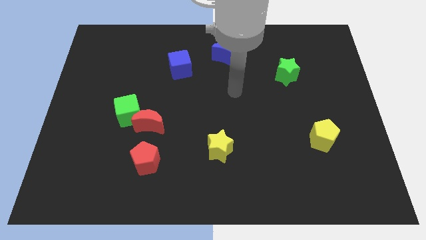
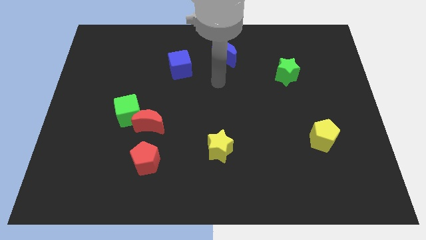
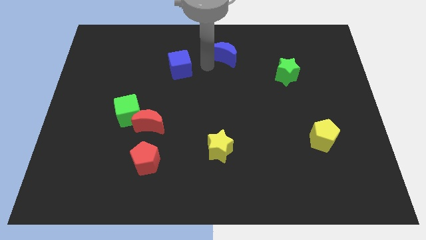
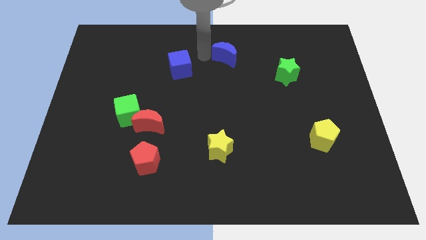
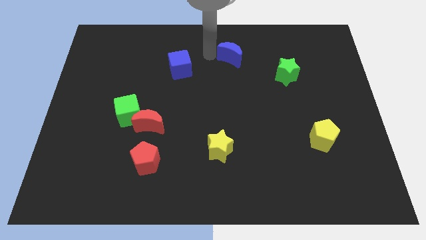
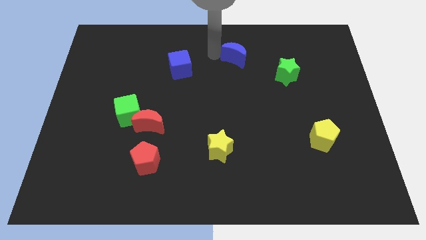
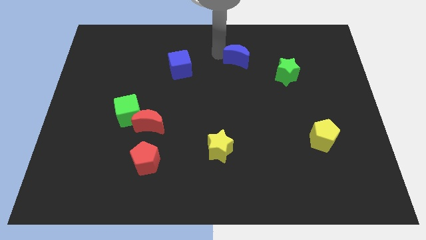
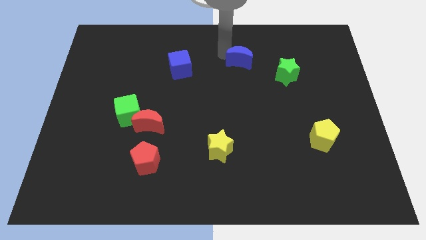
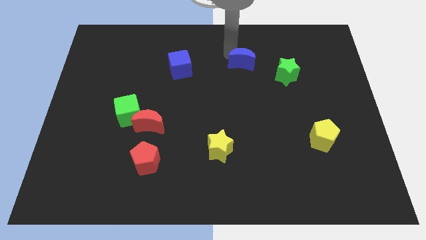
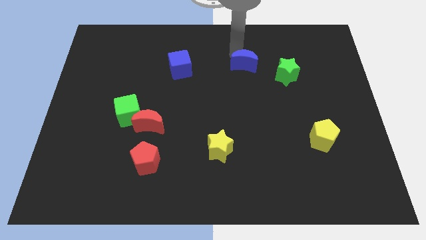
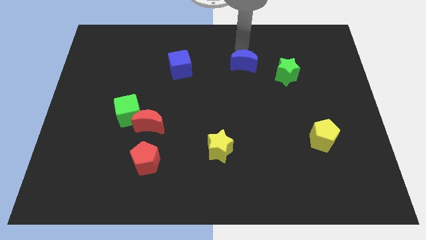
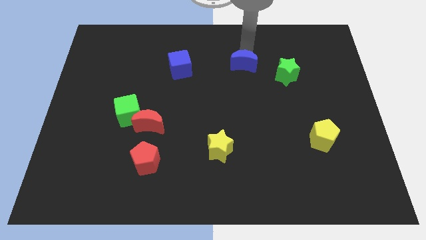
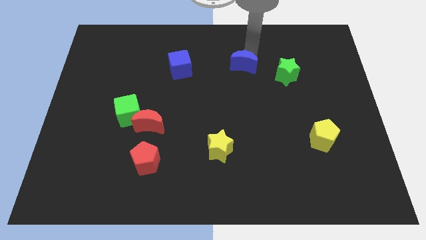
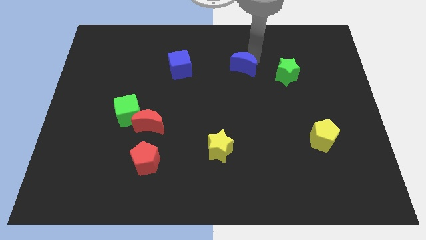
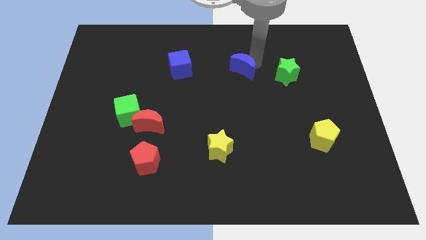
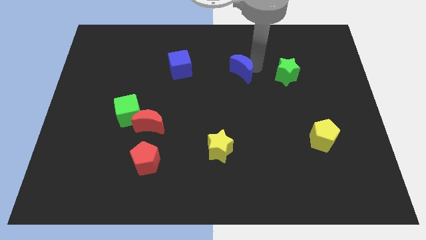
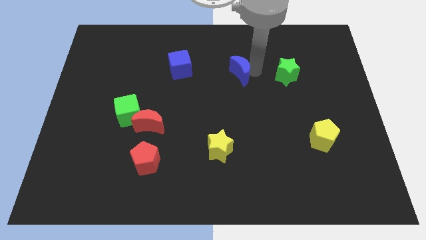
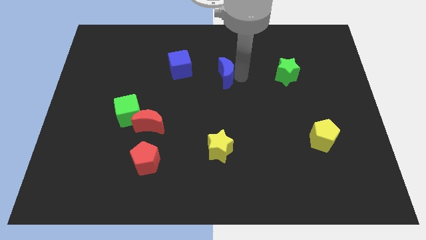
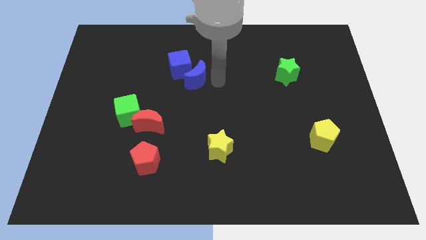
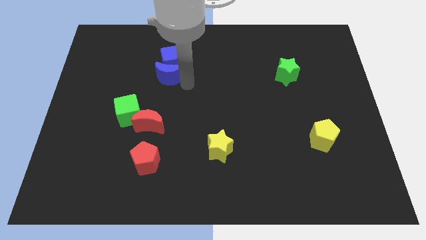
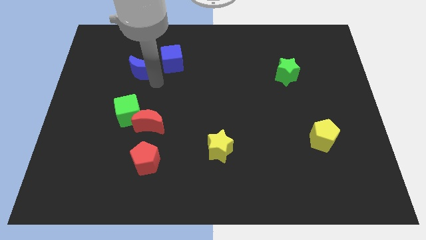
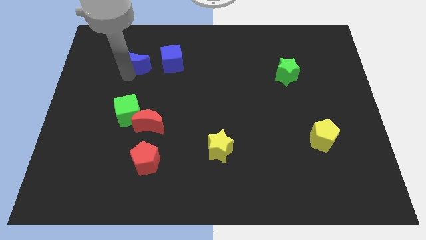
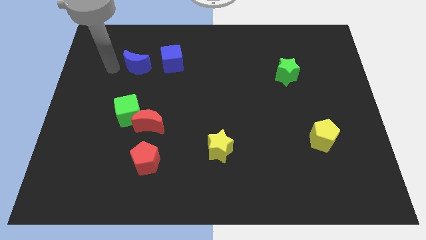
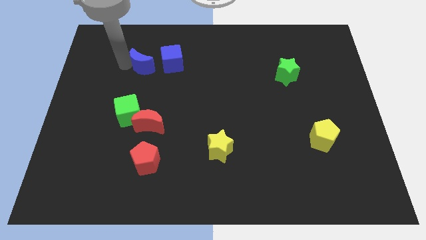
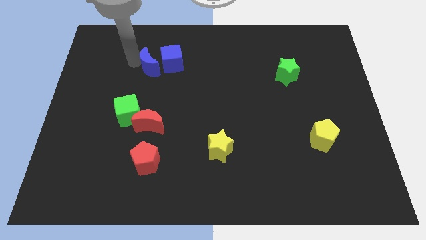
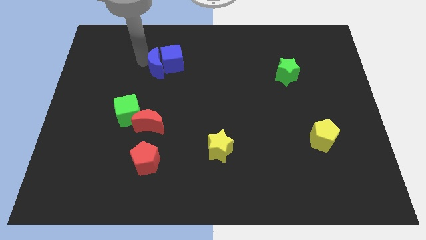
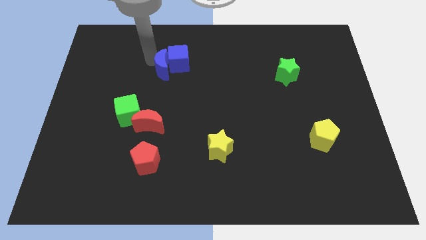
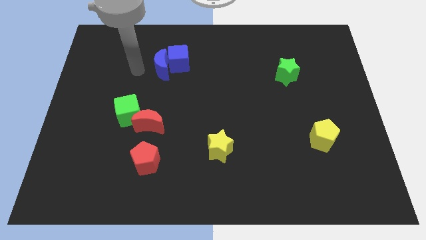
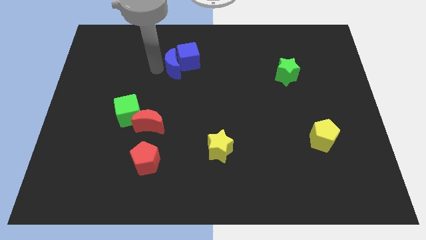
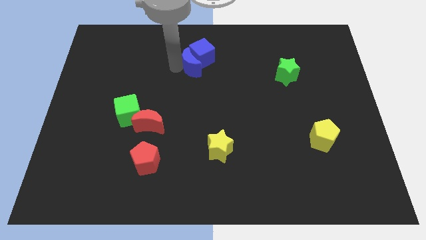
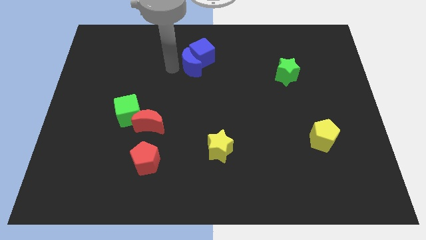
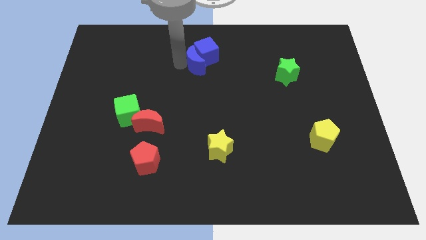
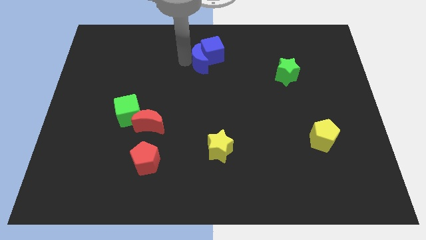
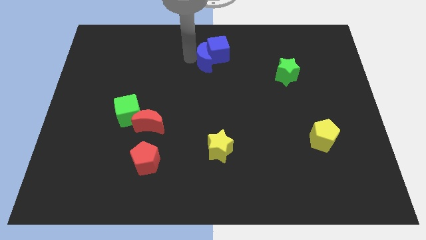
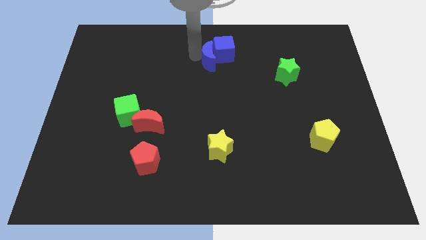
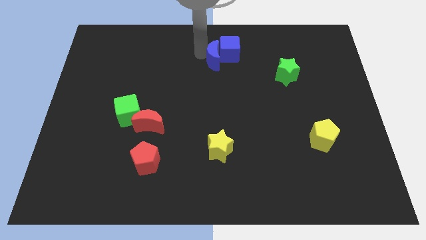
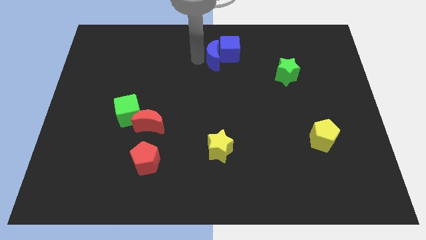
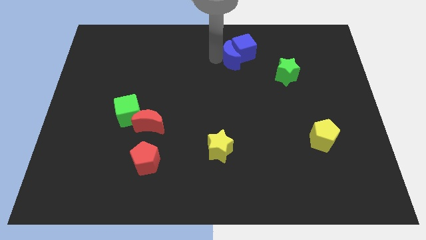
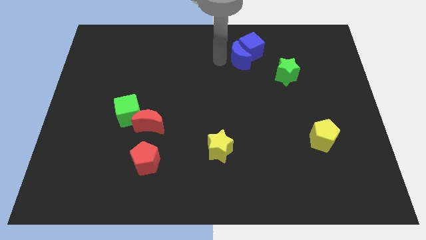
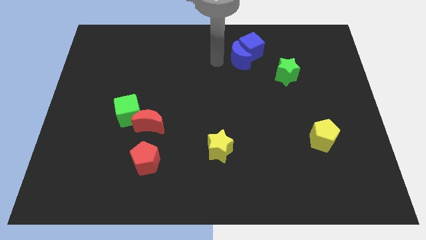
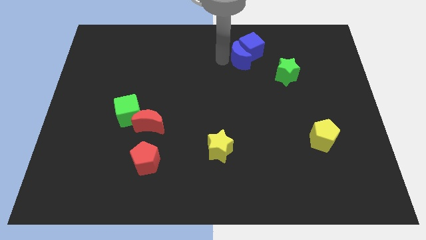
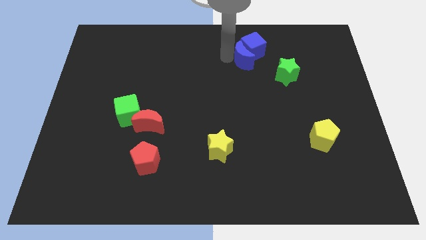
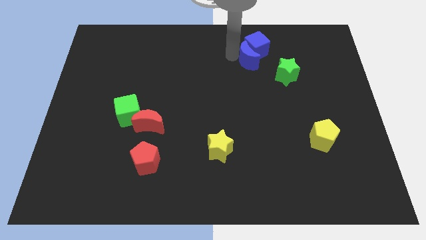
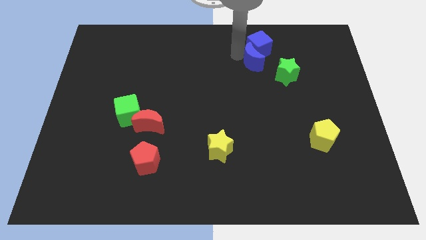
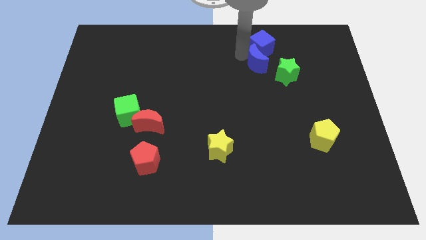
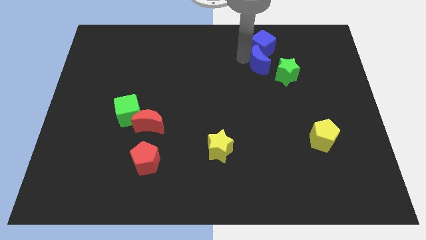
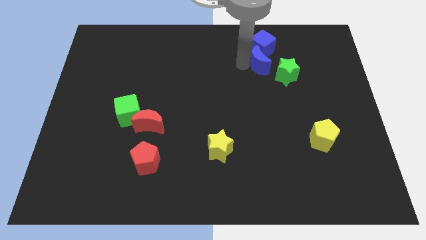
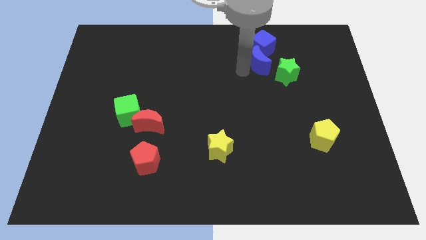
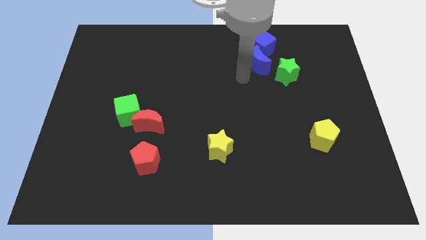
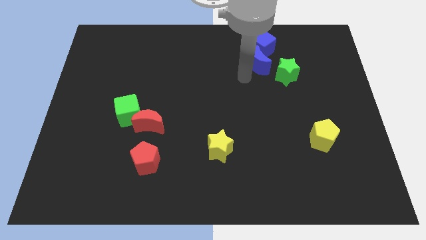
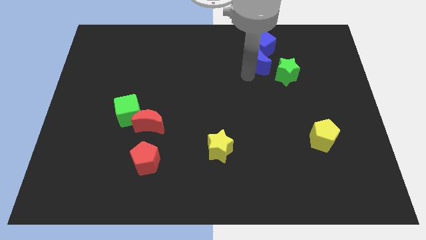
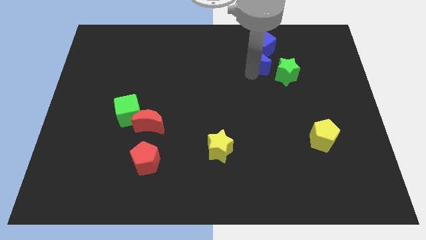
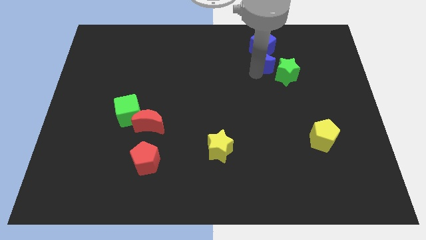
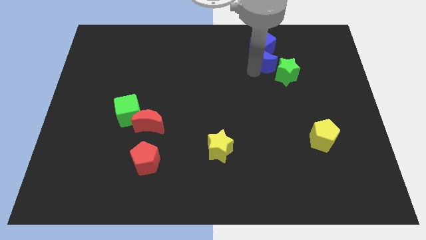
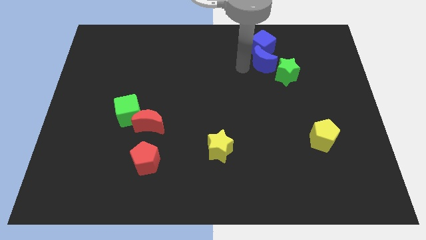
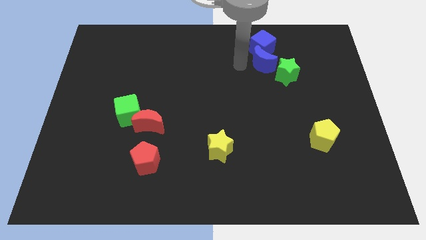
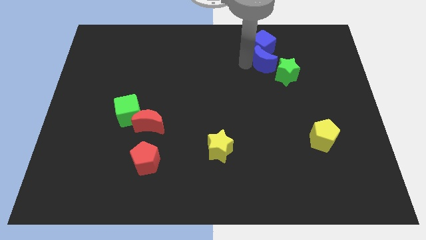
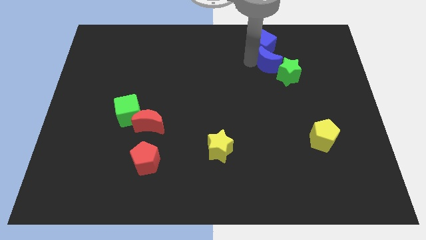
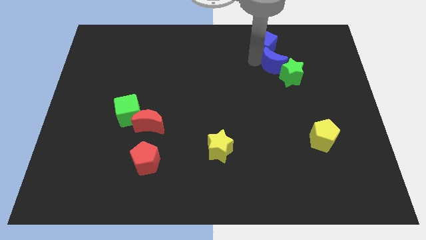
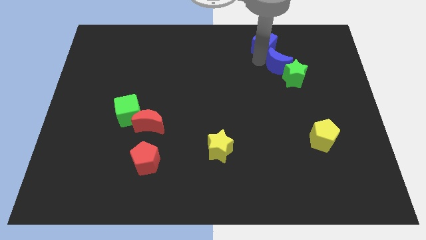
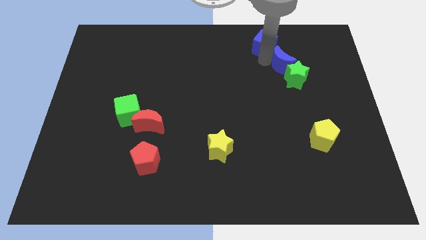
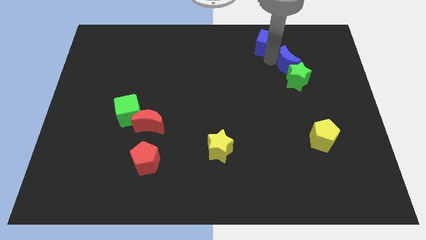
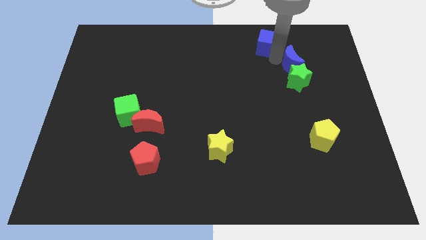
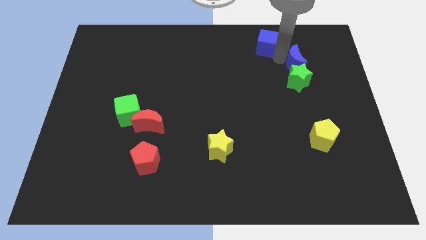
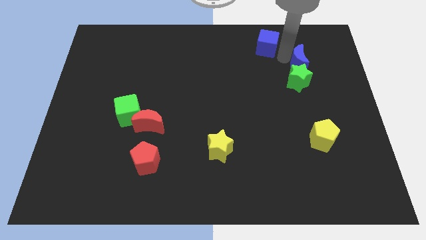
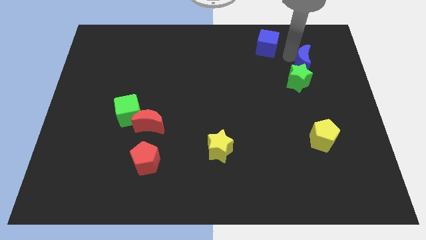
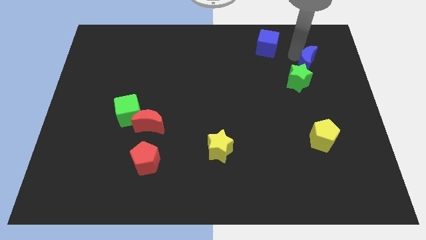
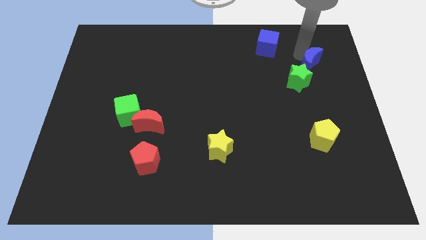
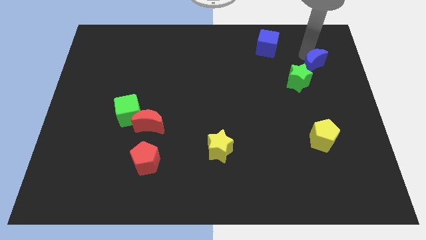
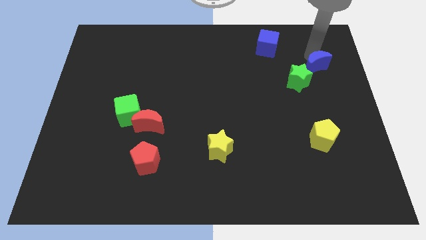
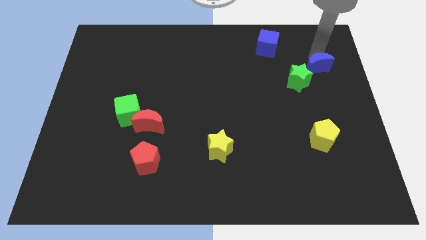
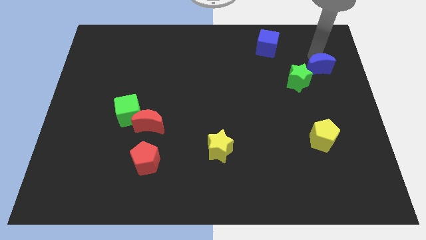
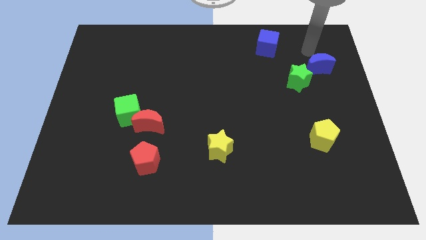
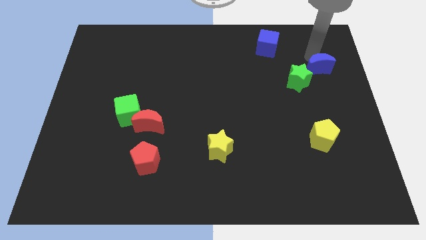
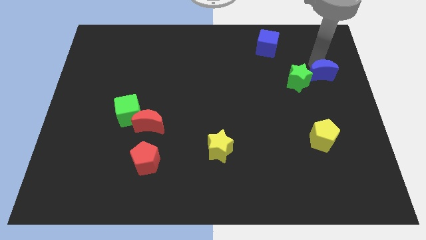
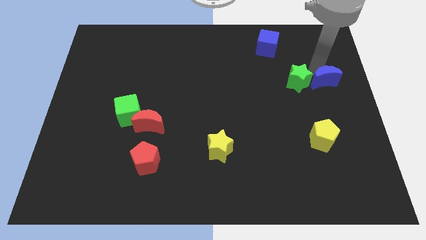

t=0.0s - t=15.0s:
put the blue moon to the center right
